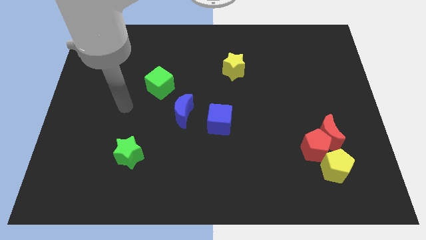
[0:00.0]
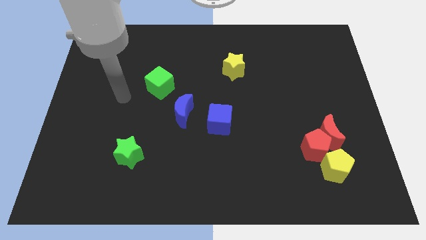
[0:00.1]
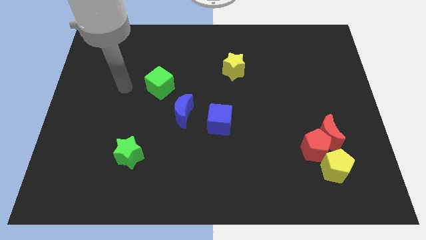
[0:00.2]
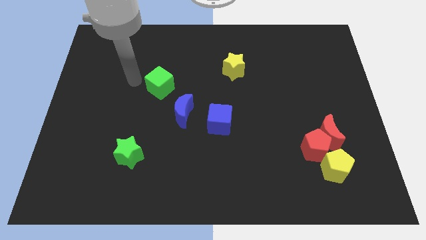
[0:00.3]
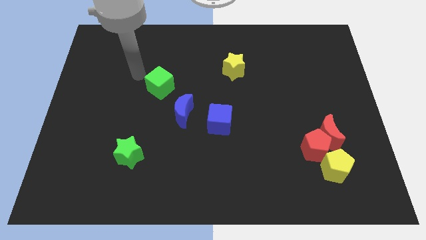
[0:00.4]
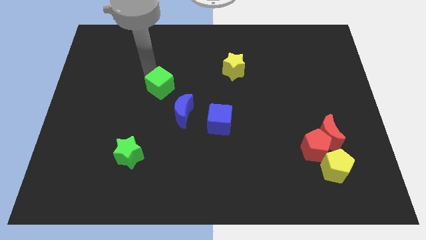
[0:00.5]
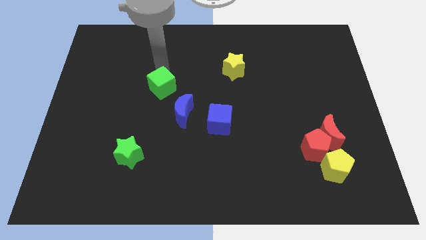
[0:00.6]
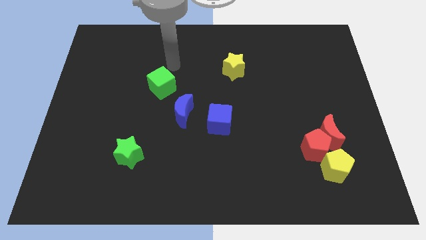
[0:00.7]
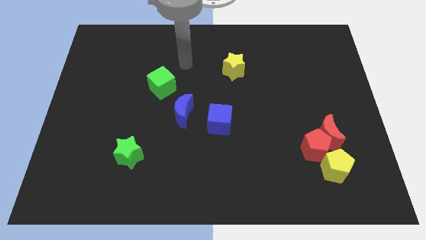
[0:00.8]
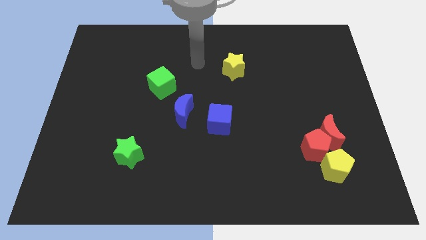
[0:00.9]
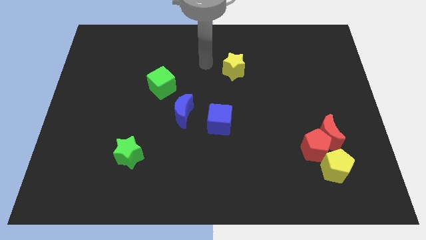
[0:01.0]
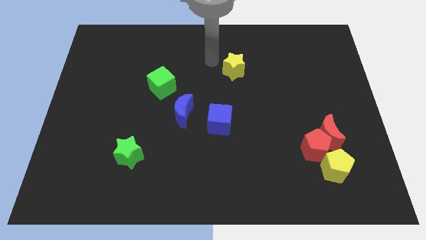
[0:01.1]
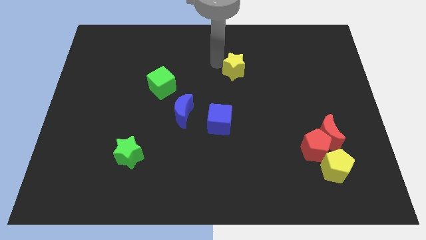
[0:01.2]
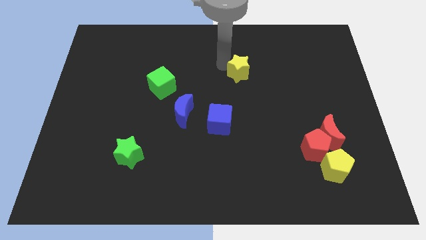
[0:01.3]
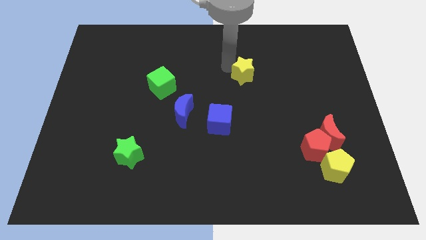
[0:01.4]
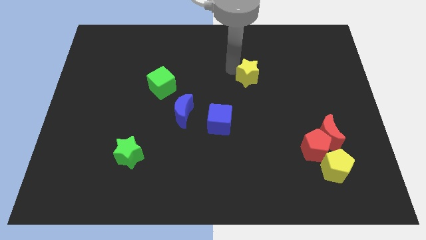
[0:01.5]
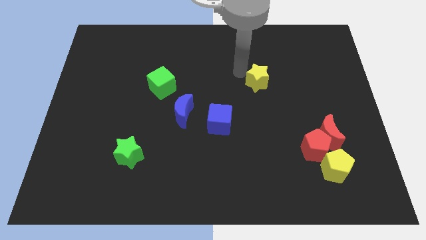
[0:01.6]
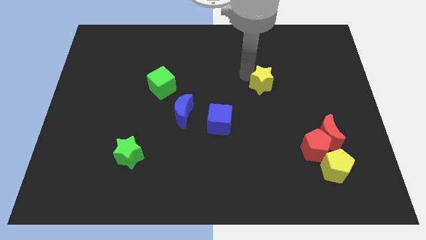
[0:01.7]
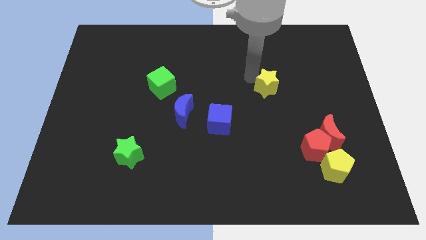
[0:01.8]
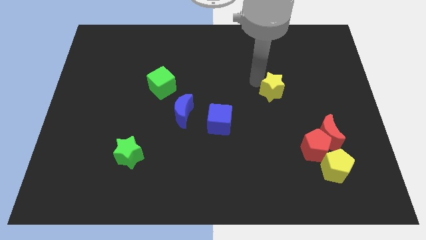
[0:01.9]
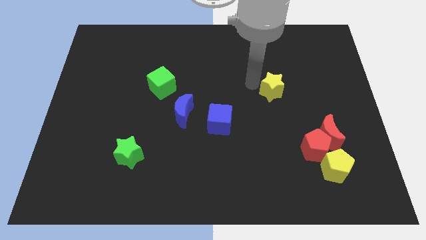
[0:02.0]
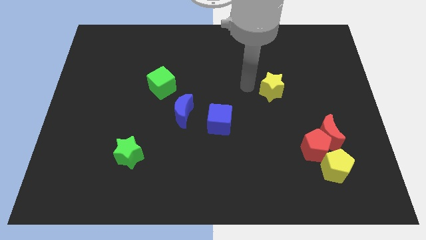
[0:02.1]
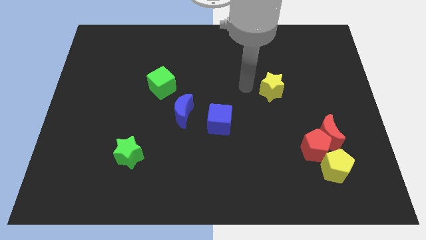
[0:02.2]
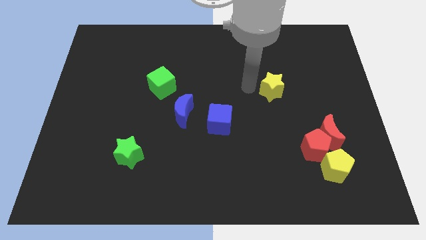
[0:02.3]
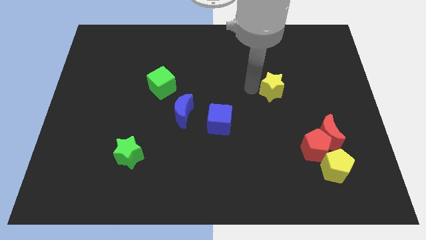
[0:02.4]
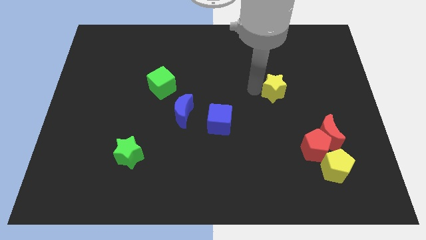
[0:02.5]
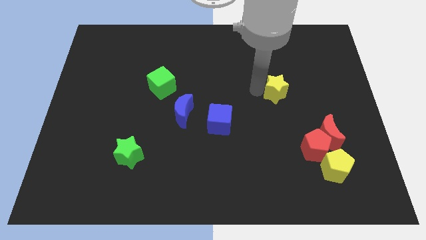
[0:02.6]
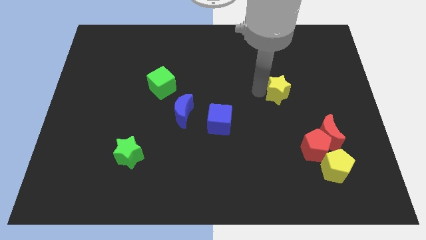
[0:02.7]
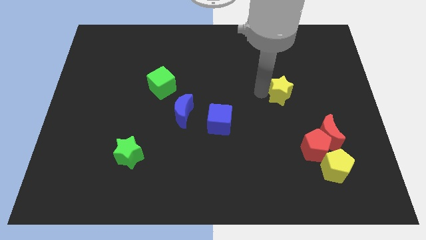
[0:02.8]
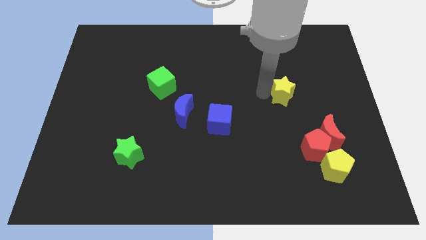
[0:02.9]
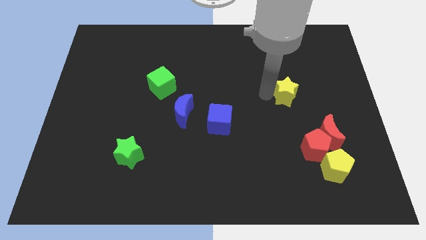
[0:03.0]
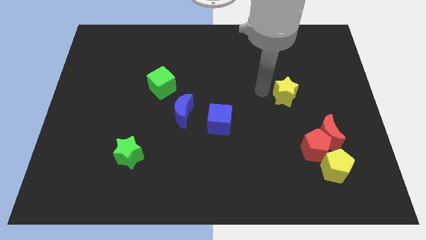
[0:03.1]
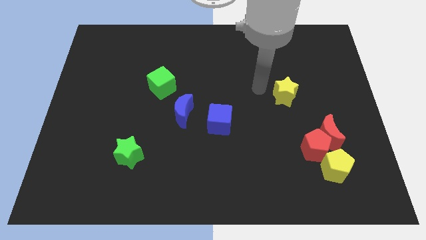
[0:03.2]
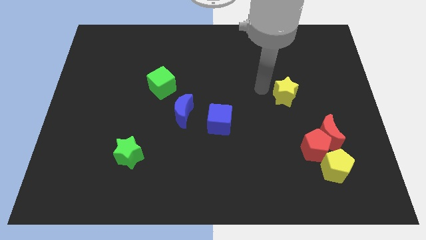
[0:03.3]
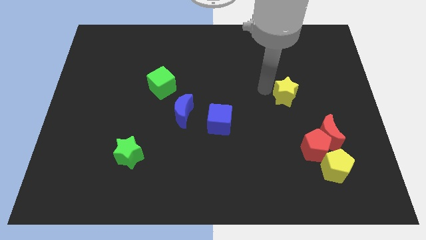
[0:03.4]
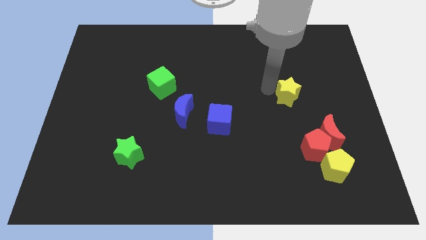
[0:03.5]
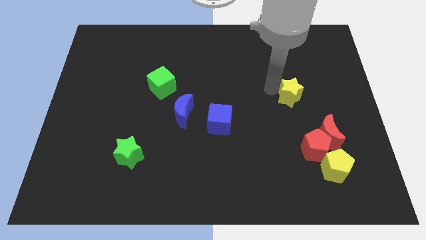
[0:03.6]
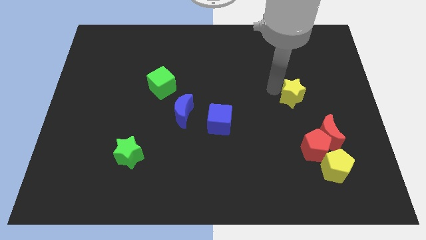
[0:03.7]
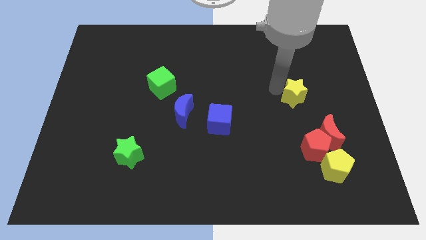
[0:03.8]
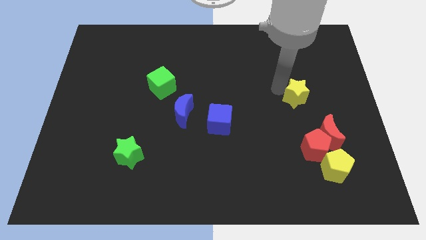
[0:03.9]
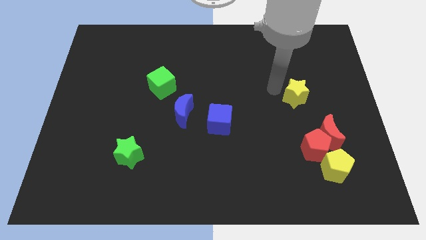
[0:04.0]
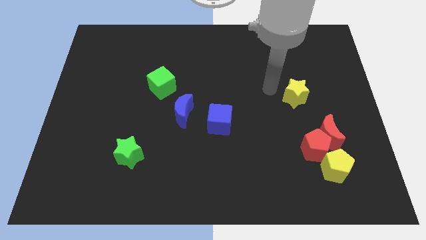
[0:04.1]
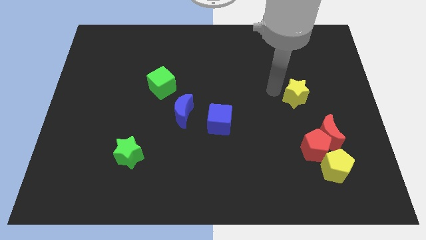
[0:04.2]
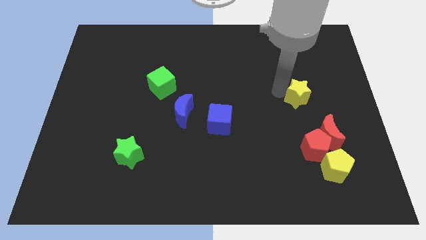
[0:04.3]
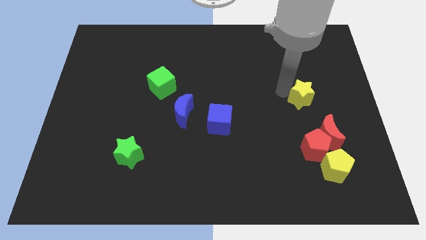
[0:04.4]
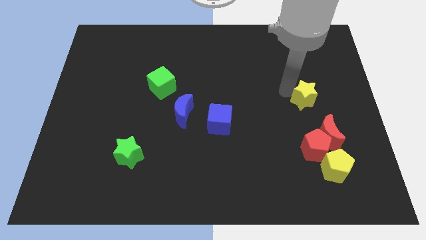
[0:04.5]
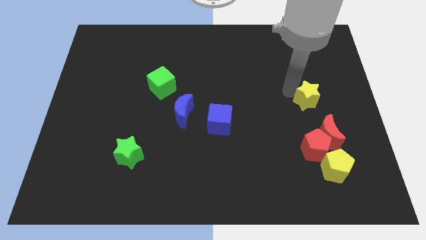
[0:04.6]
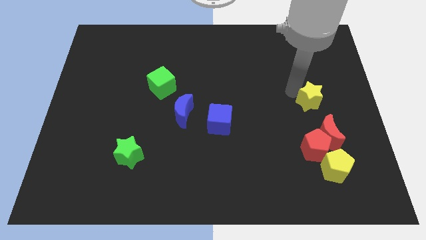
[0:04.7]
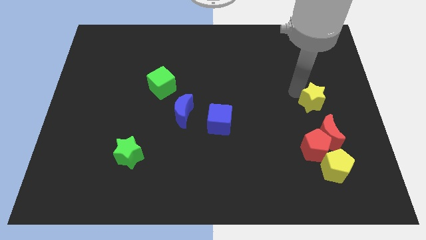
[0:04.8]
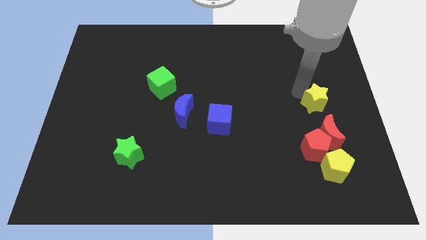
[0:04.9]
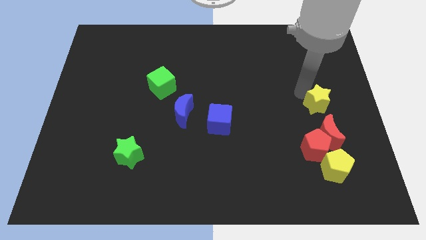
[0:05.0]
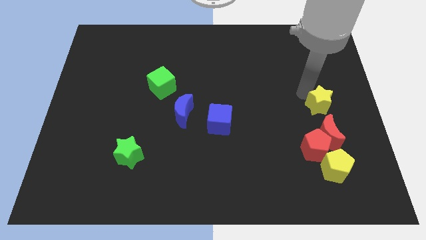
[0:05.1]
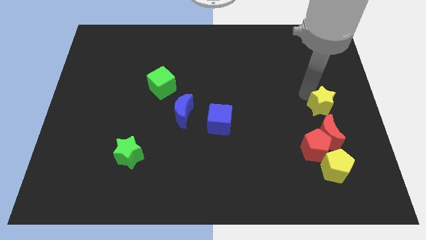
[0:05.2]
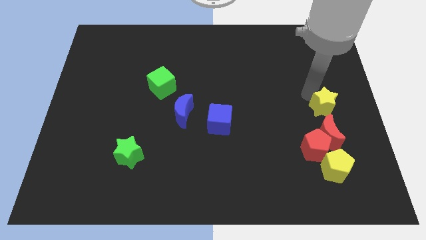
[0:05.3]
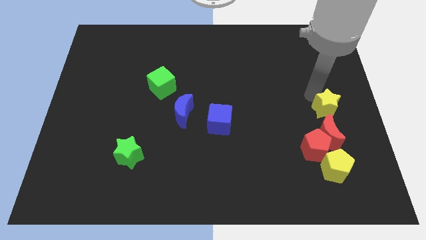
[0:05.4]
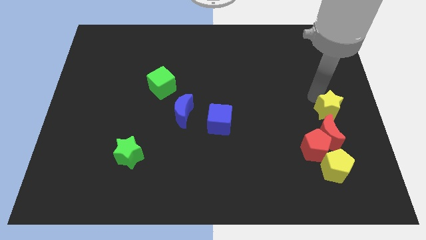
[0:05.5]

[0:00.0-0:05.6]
put the yellow star diagonally up and to the right of the red pentagon

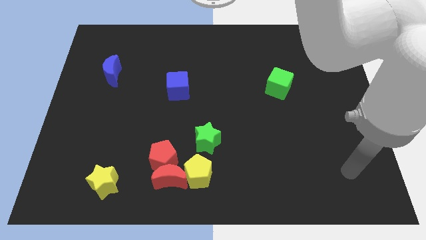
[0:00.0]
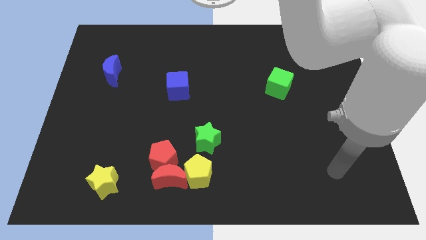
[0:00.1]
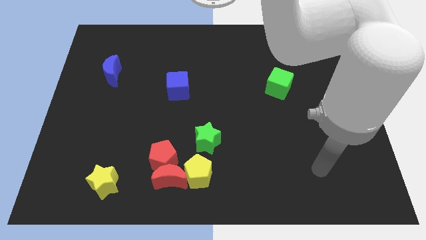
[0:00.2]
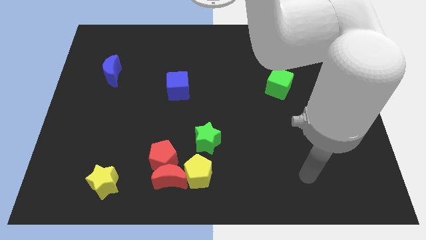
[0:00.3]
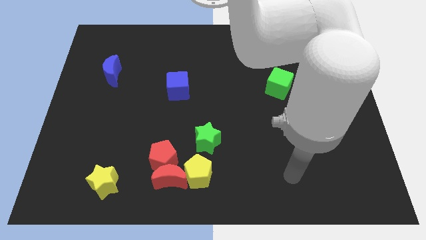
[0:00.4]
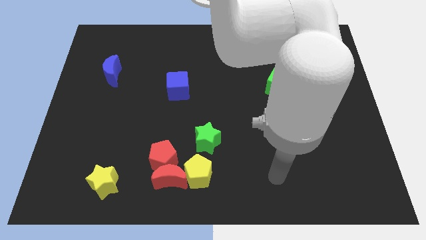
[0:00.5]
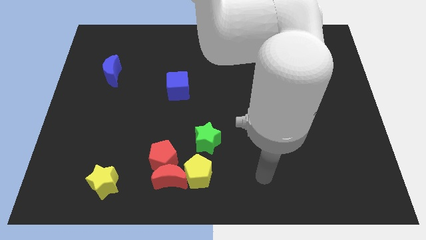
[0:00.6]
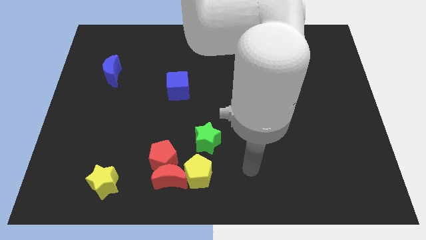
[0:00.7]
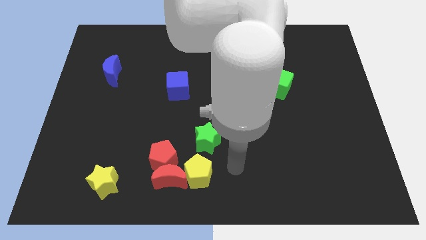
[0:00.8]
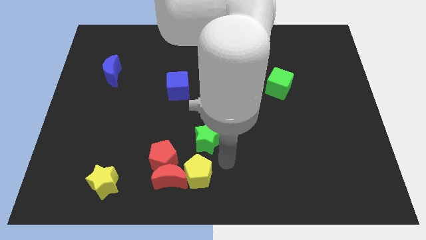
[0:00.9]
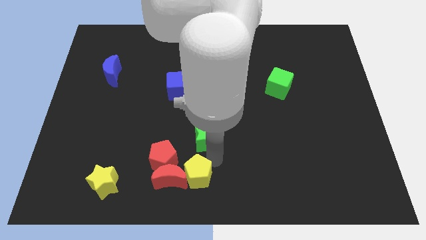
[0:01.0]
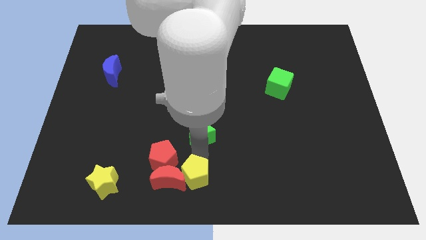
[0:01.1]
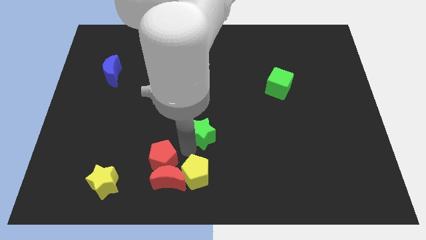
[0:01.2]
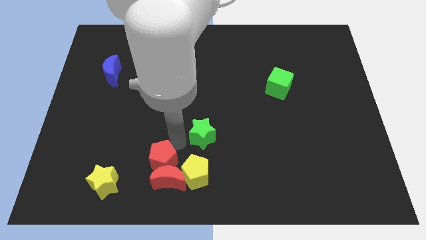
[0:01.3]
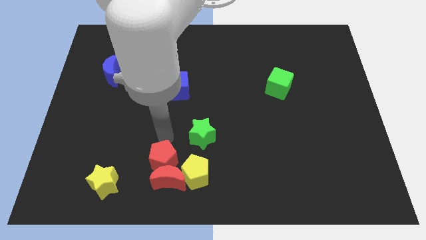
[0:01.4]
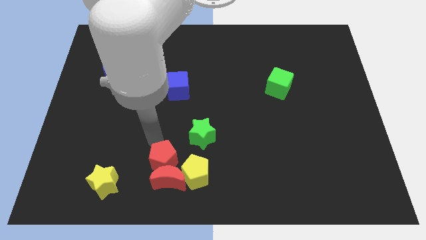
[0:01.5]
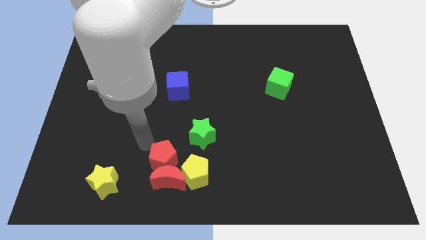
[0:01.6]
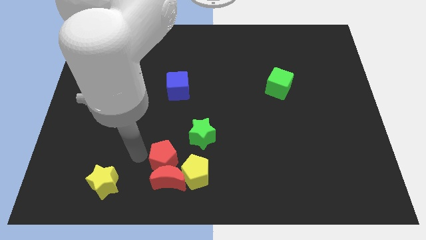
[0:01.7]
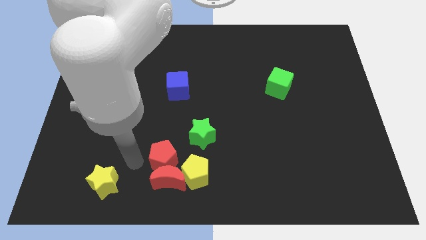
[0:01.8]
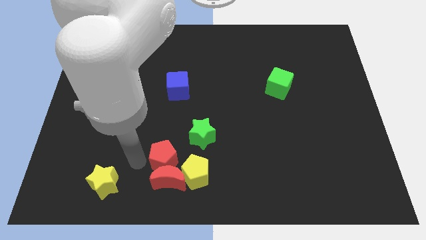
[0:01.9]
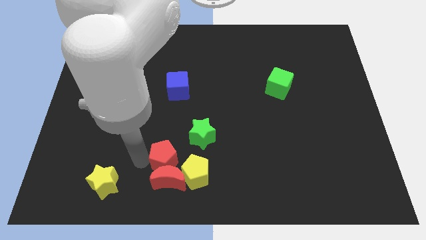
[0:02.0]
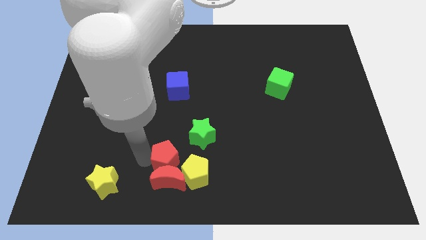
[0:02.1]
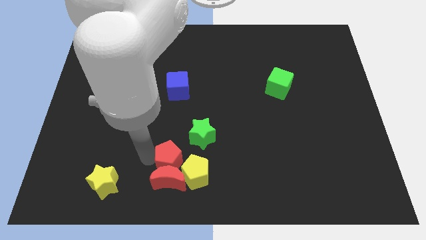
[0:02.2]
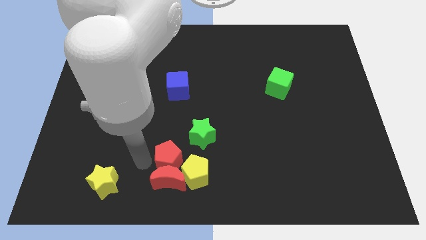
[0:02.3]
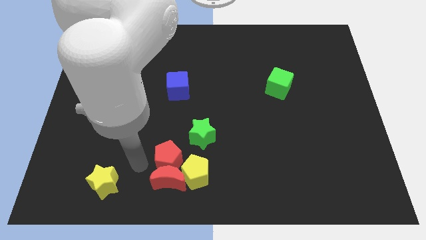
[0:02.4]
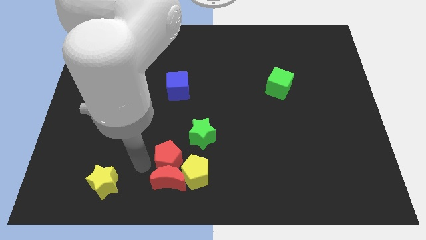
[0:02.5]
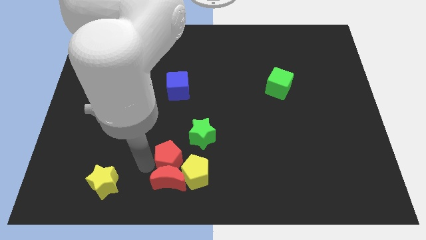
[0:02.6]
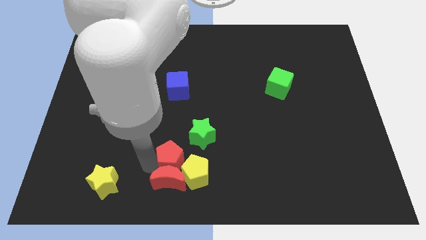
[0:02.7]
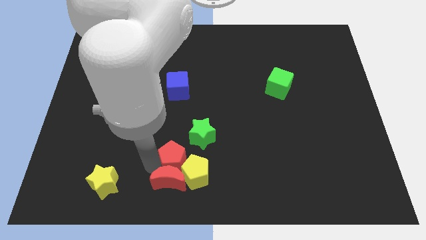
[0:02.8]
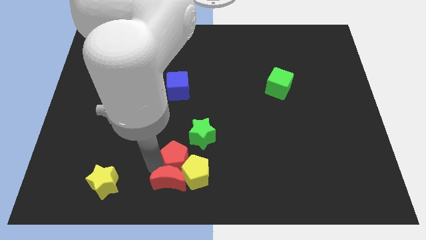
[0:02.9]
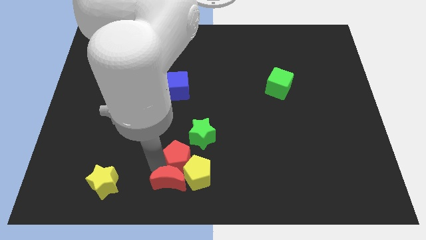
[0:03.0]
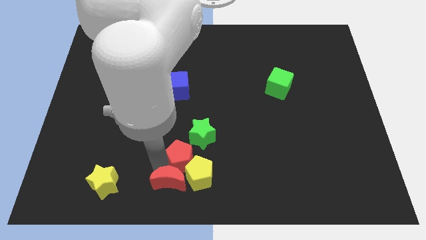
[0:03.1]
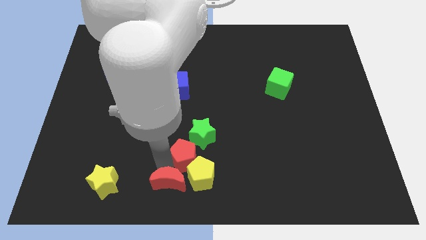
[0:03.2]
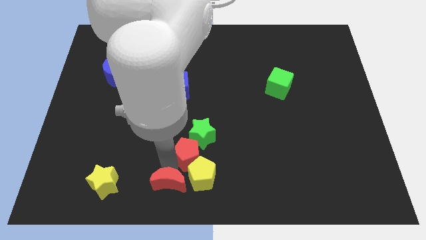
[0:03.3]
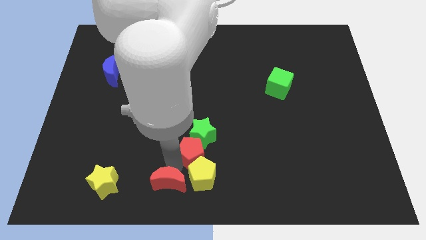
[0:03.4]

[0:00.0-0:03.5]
push the red pentagon to the bottom right side of the green star
